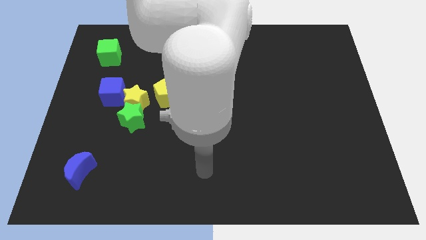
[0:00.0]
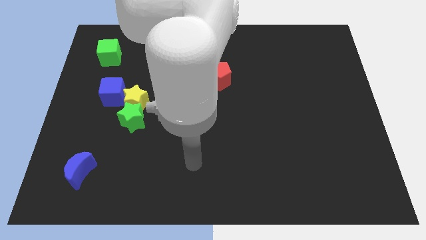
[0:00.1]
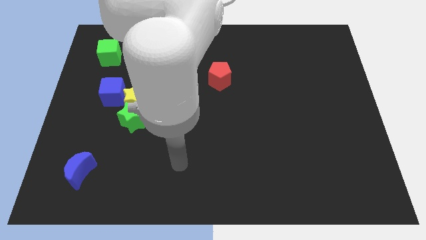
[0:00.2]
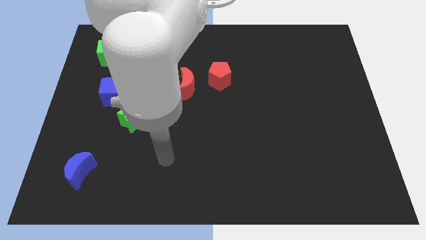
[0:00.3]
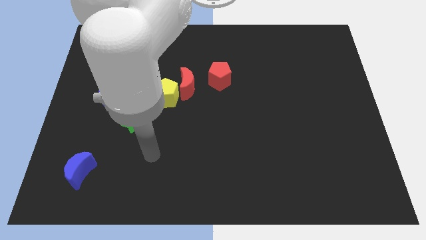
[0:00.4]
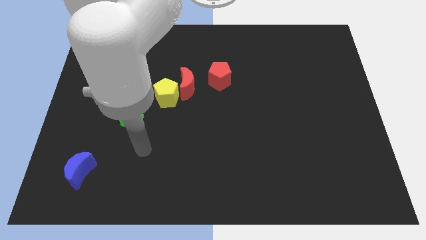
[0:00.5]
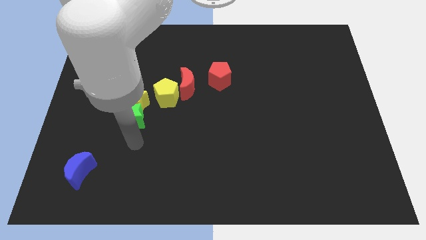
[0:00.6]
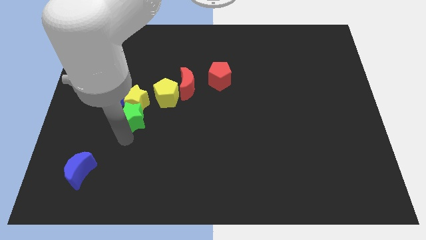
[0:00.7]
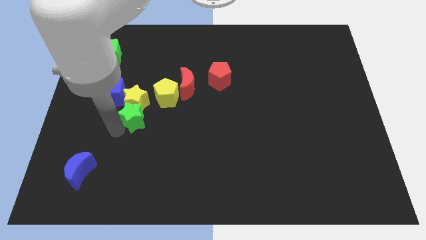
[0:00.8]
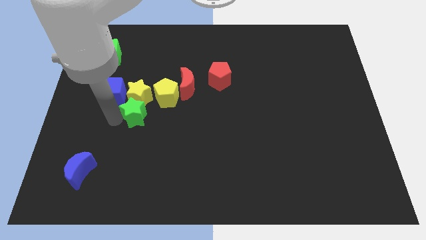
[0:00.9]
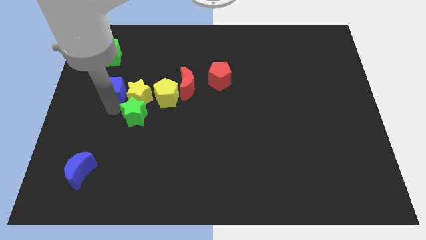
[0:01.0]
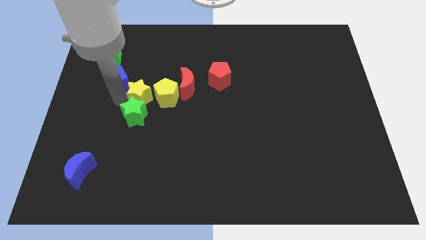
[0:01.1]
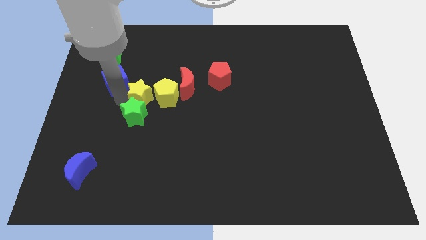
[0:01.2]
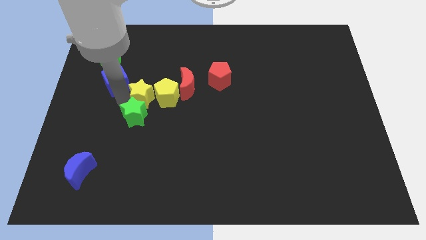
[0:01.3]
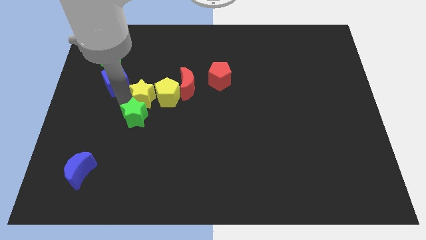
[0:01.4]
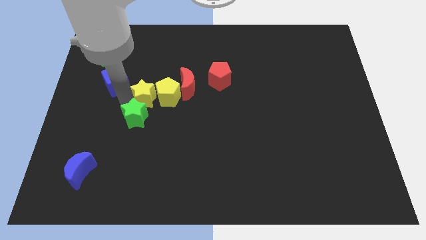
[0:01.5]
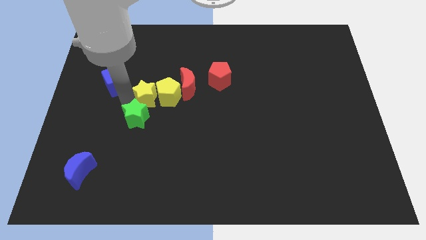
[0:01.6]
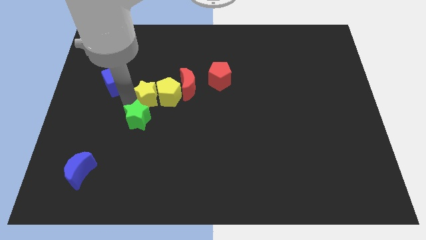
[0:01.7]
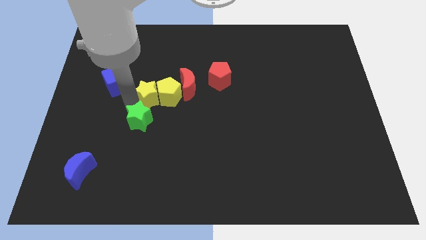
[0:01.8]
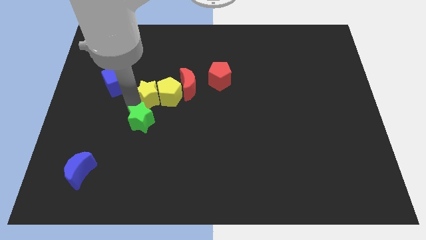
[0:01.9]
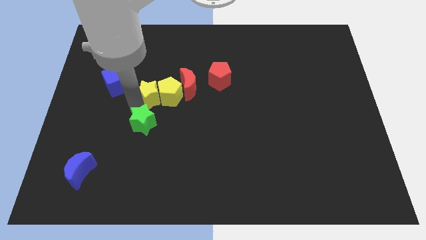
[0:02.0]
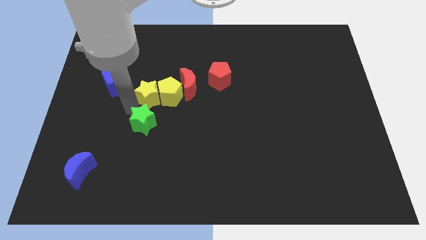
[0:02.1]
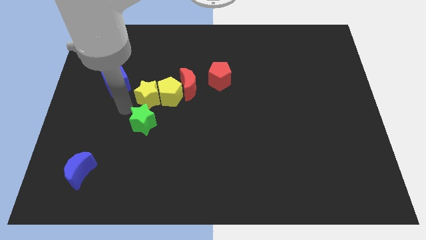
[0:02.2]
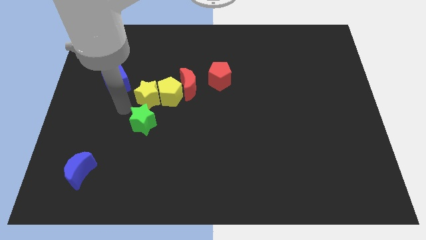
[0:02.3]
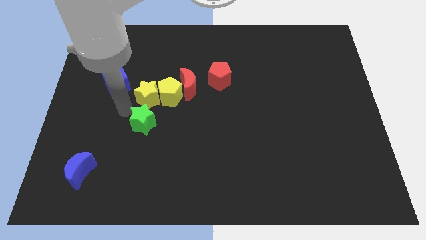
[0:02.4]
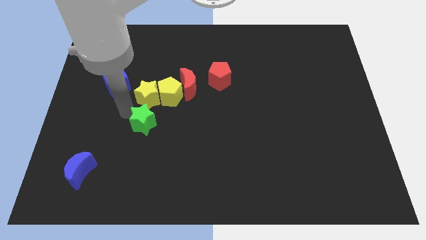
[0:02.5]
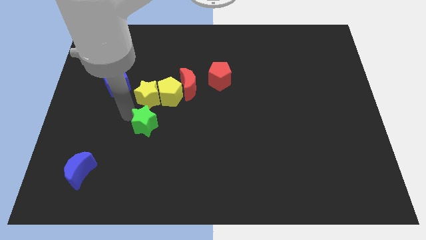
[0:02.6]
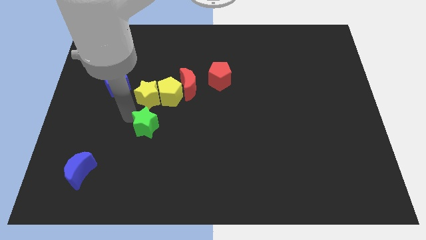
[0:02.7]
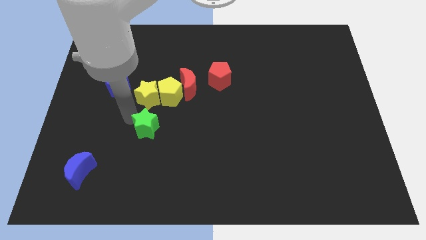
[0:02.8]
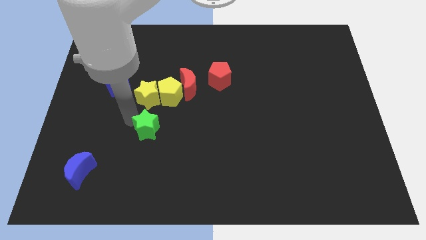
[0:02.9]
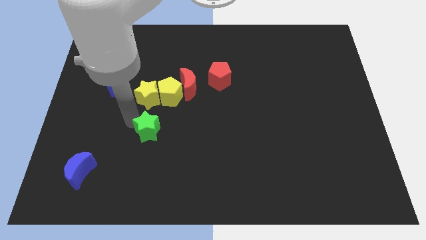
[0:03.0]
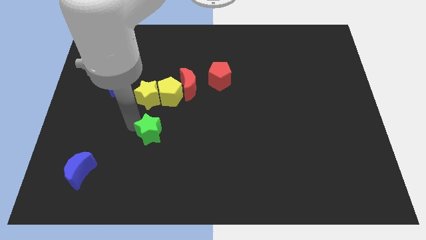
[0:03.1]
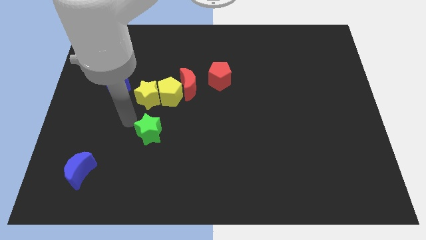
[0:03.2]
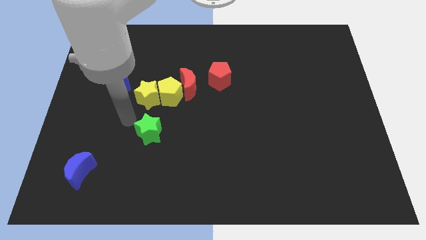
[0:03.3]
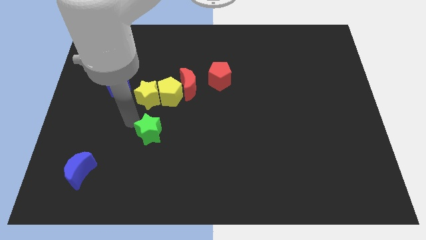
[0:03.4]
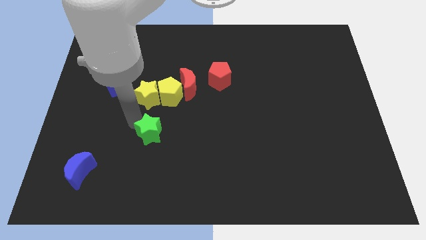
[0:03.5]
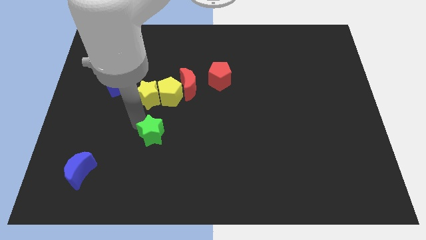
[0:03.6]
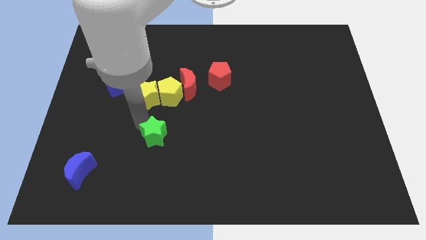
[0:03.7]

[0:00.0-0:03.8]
move the green star down and then to the right a little bit

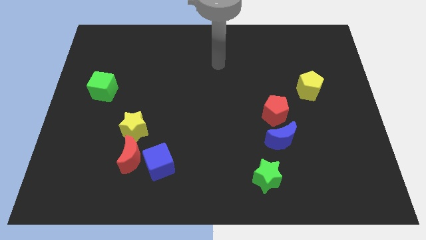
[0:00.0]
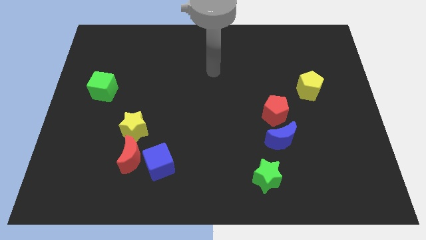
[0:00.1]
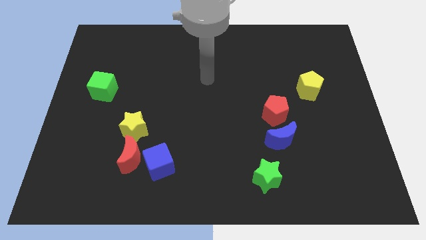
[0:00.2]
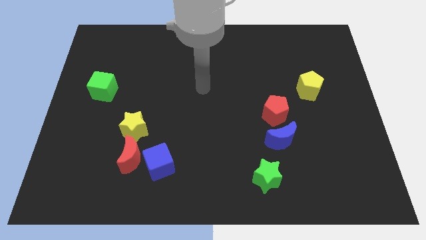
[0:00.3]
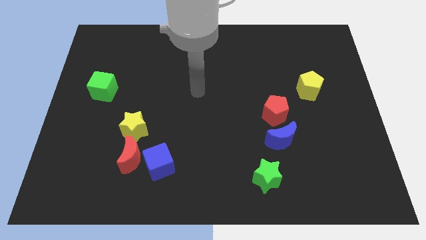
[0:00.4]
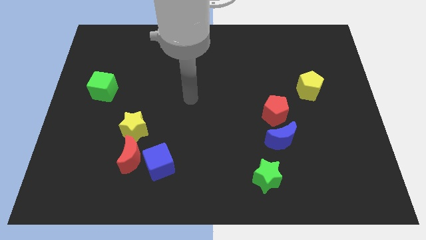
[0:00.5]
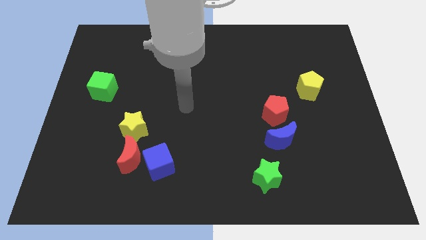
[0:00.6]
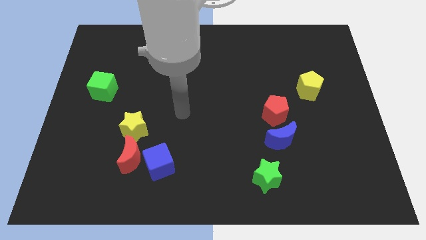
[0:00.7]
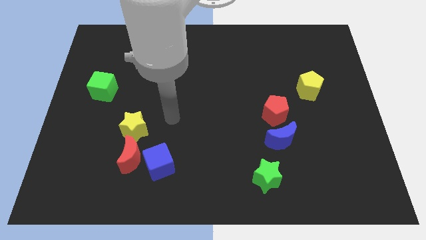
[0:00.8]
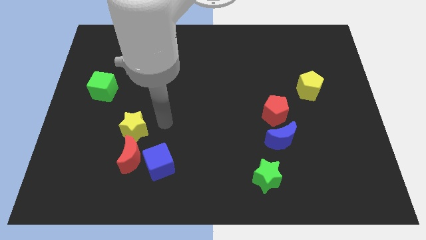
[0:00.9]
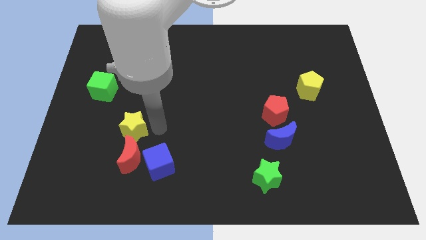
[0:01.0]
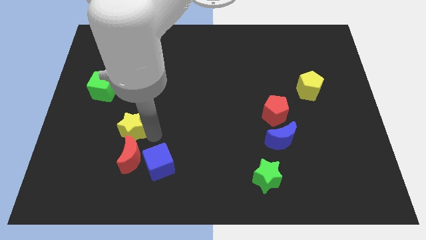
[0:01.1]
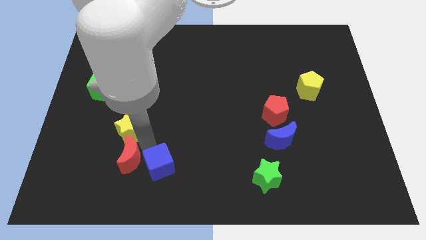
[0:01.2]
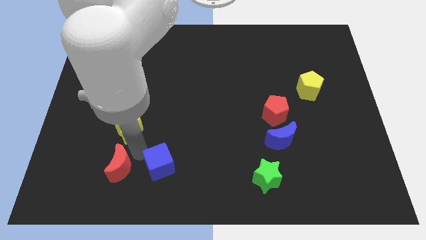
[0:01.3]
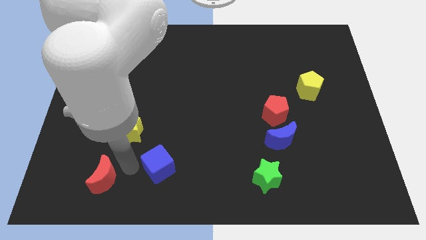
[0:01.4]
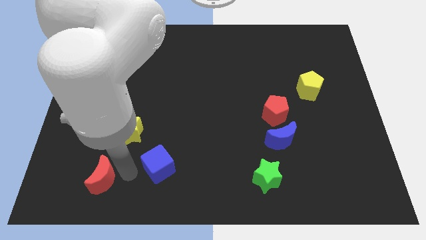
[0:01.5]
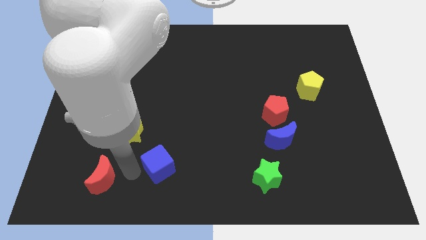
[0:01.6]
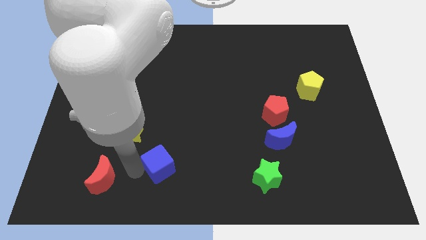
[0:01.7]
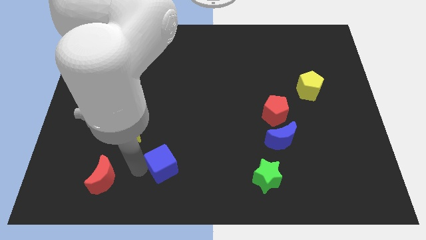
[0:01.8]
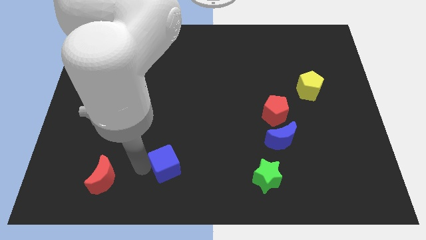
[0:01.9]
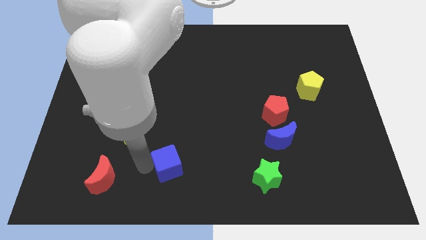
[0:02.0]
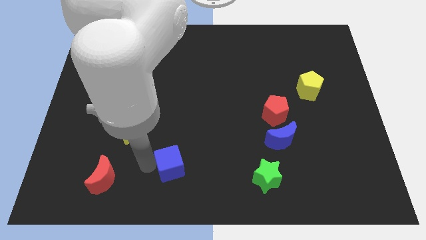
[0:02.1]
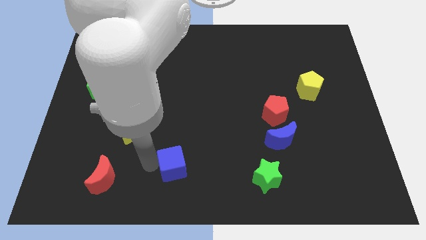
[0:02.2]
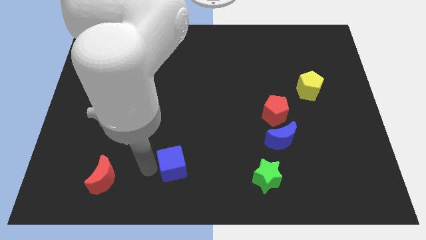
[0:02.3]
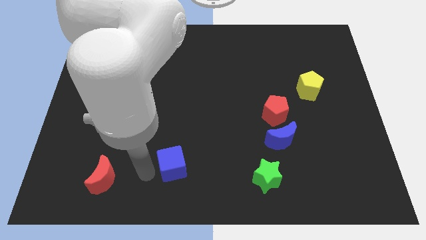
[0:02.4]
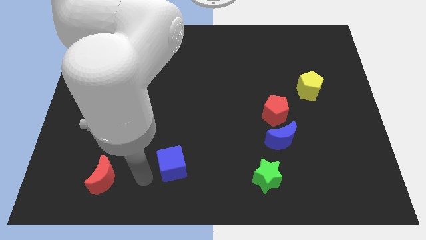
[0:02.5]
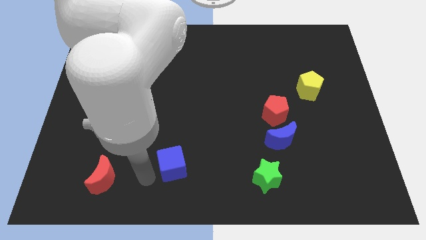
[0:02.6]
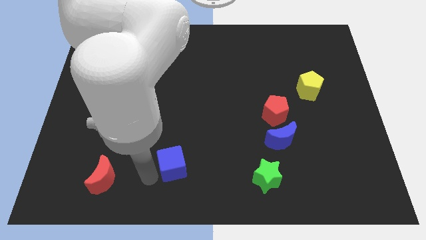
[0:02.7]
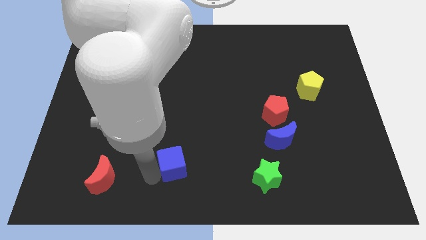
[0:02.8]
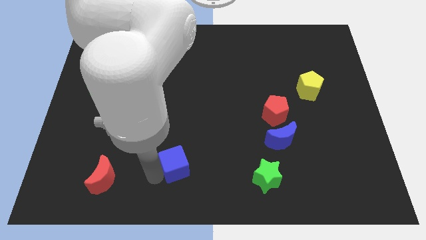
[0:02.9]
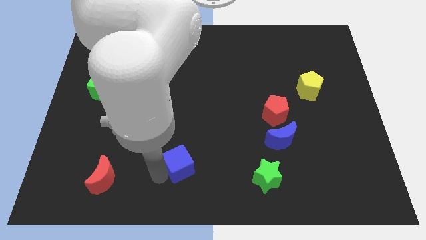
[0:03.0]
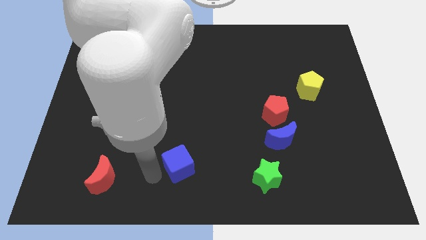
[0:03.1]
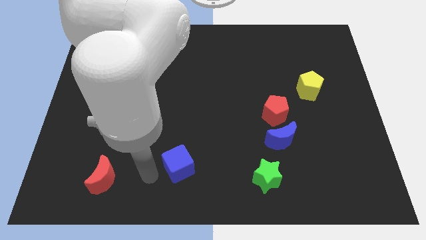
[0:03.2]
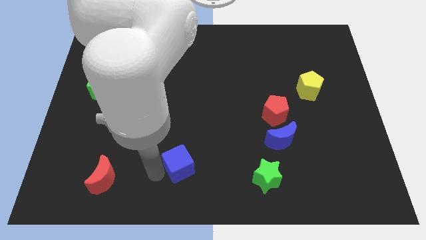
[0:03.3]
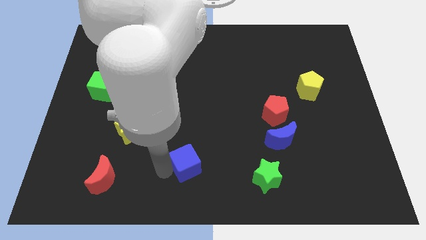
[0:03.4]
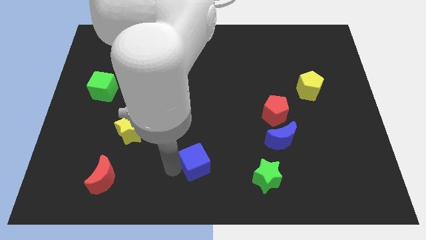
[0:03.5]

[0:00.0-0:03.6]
move the blue cube slightly right

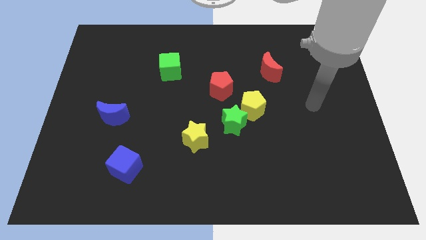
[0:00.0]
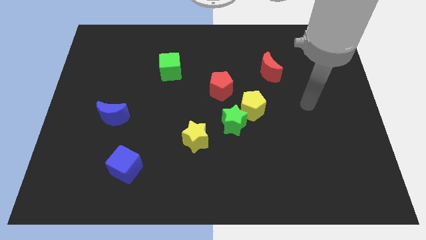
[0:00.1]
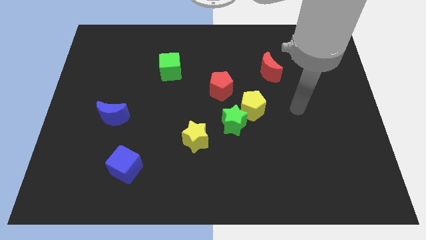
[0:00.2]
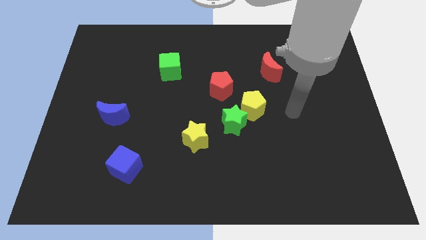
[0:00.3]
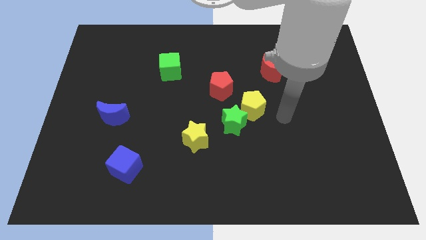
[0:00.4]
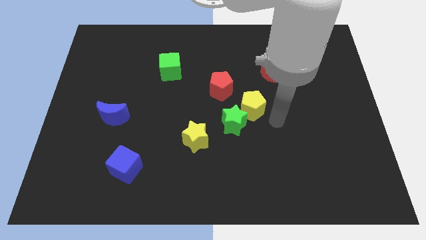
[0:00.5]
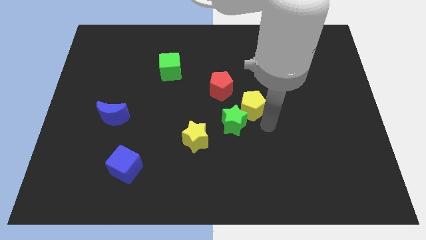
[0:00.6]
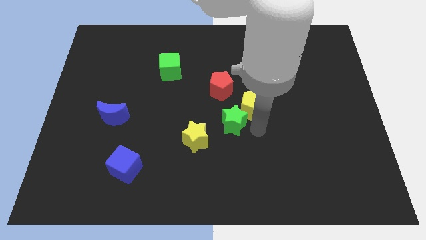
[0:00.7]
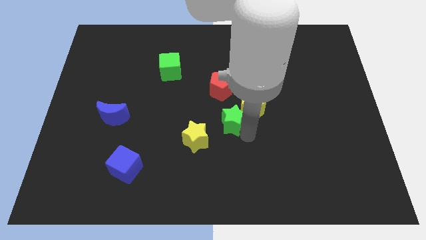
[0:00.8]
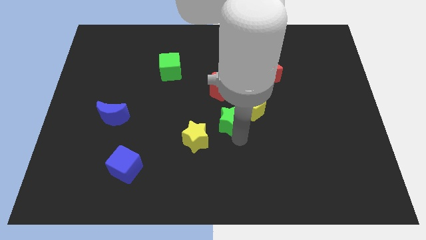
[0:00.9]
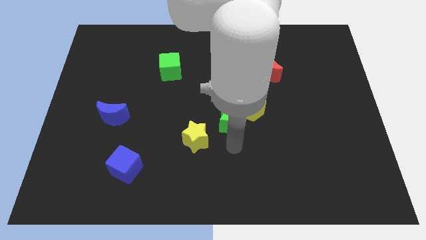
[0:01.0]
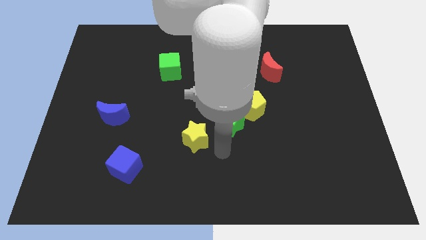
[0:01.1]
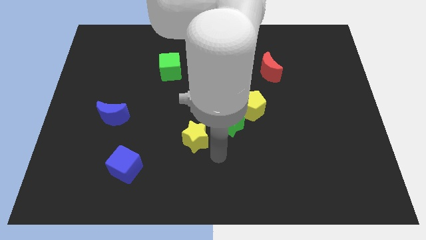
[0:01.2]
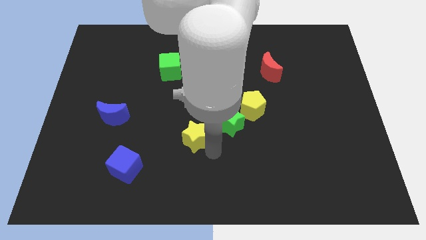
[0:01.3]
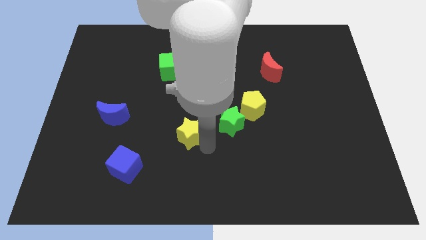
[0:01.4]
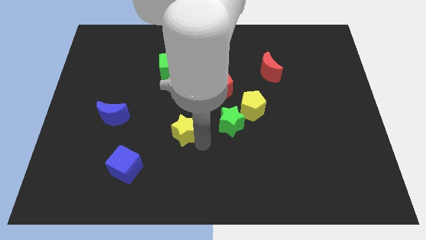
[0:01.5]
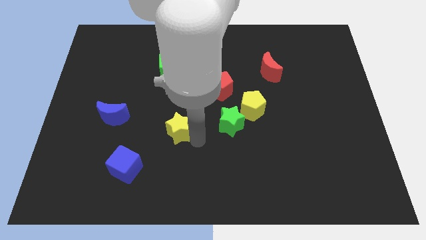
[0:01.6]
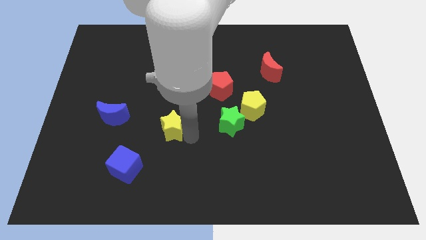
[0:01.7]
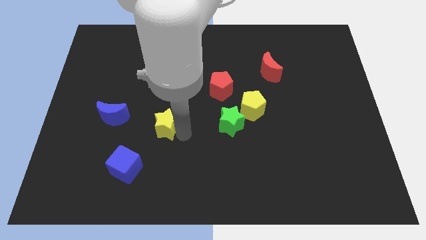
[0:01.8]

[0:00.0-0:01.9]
push the yellow star up and then left a bit
